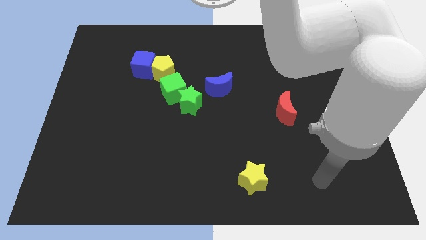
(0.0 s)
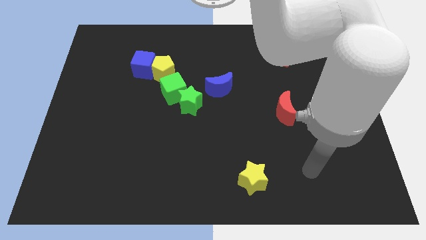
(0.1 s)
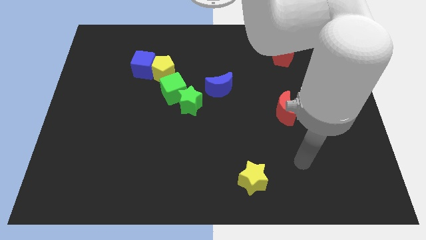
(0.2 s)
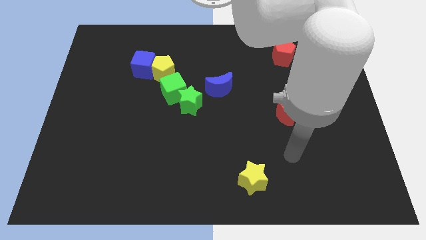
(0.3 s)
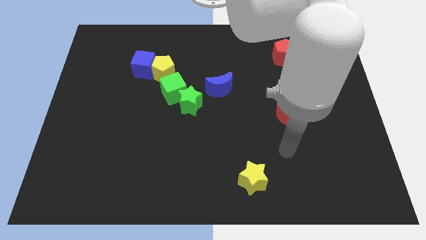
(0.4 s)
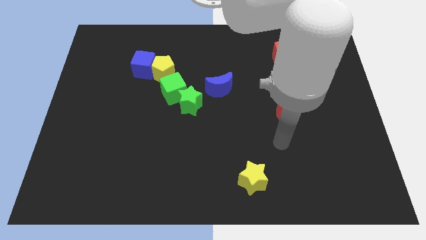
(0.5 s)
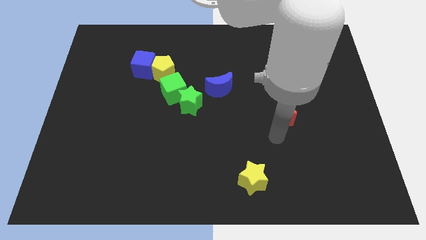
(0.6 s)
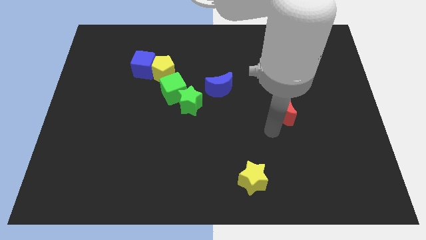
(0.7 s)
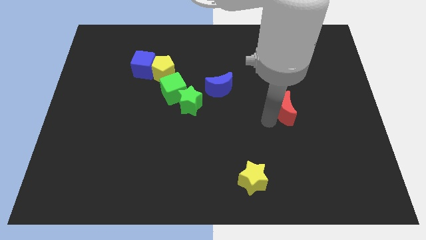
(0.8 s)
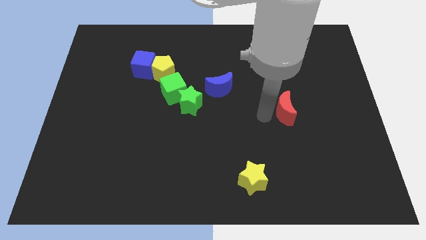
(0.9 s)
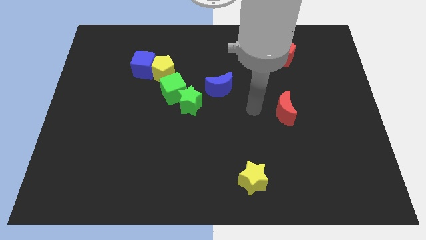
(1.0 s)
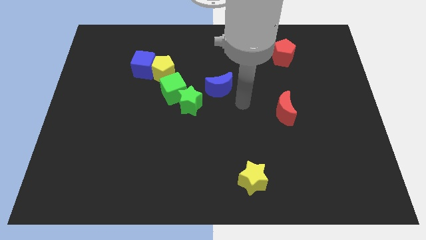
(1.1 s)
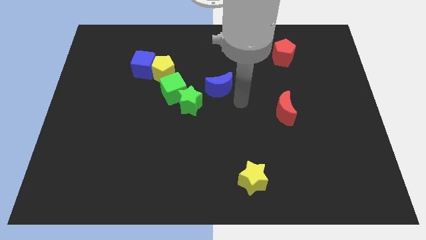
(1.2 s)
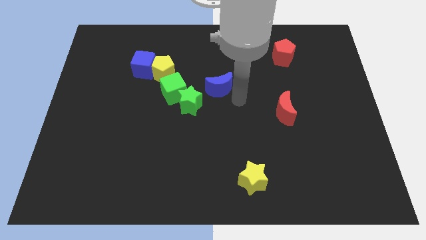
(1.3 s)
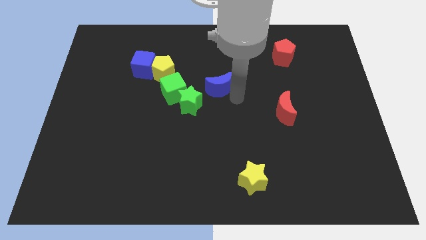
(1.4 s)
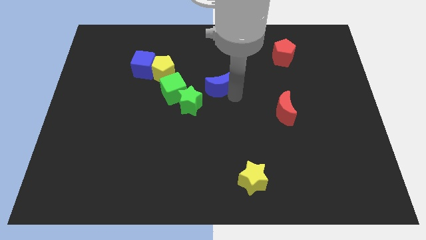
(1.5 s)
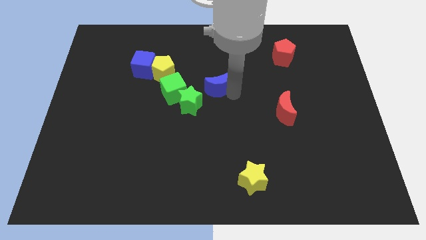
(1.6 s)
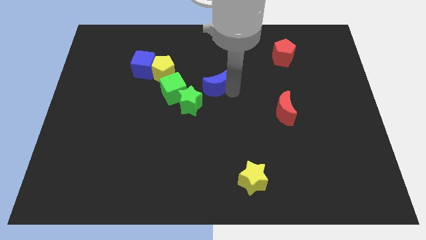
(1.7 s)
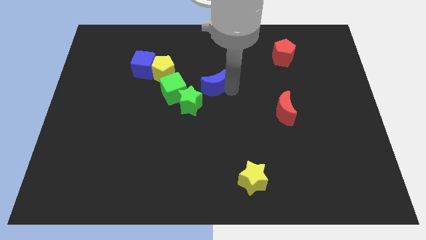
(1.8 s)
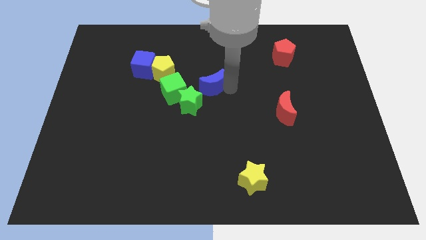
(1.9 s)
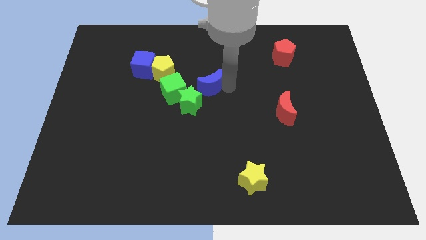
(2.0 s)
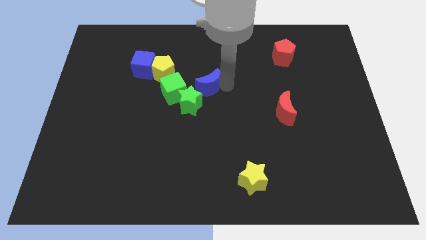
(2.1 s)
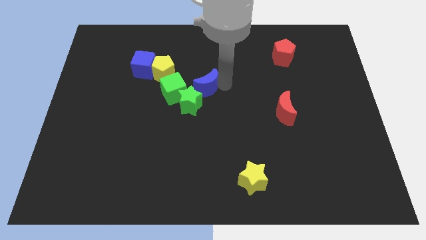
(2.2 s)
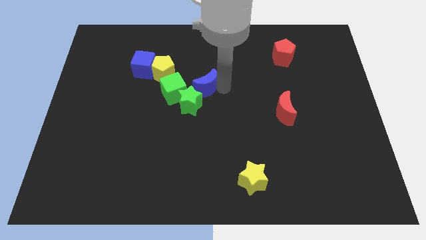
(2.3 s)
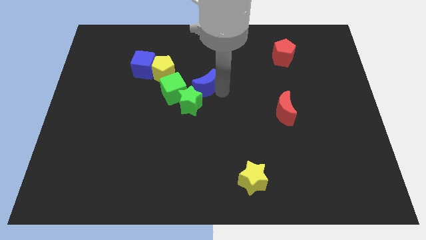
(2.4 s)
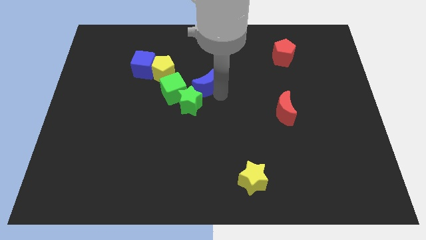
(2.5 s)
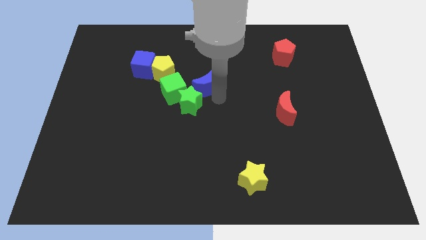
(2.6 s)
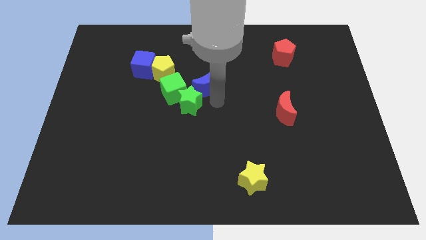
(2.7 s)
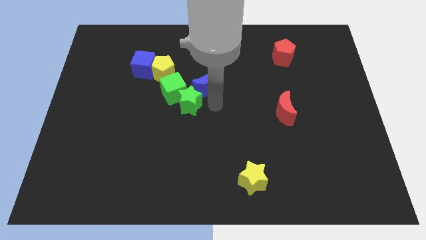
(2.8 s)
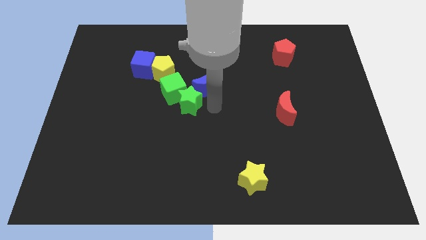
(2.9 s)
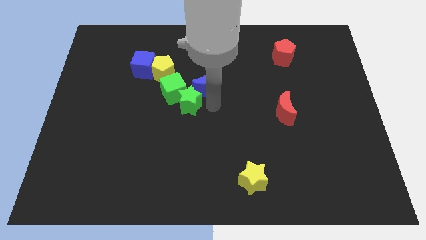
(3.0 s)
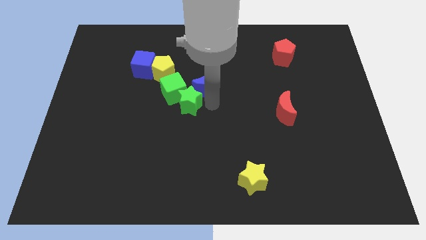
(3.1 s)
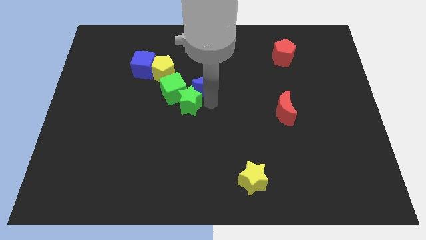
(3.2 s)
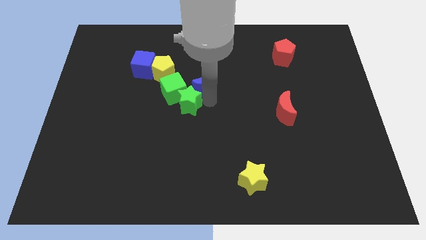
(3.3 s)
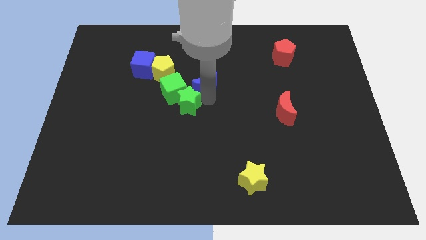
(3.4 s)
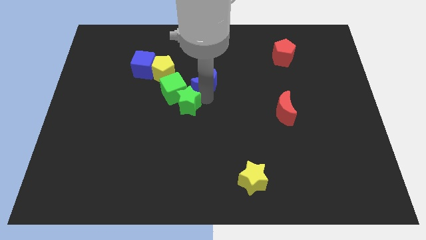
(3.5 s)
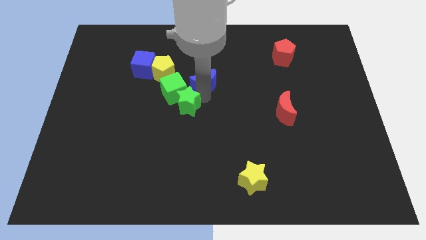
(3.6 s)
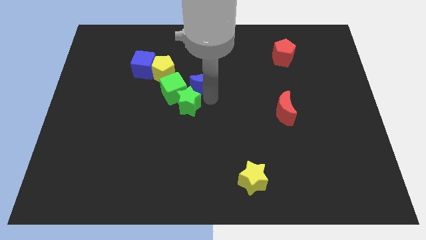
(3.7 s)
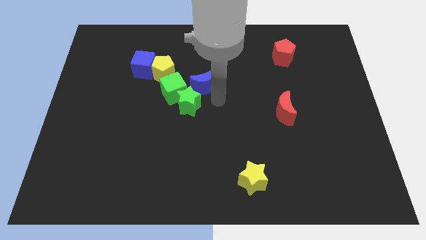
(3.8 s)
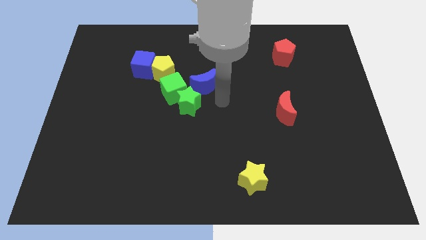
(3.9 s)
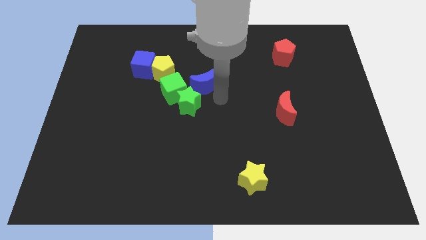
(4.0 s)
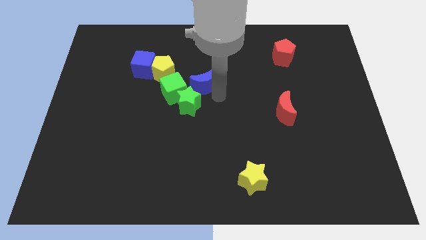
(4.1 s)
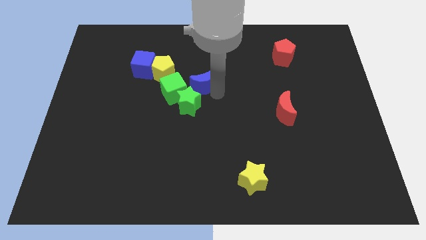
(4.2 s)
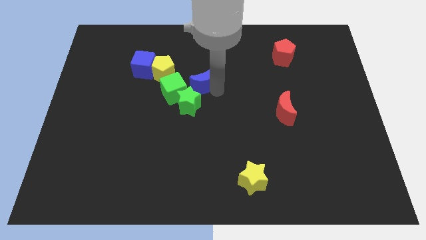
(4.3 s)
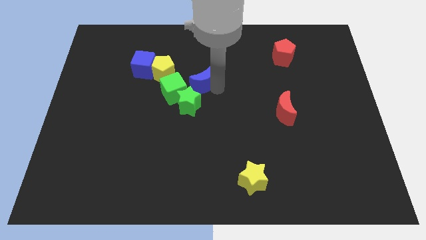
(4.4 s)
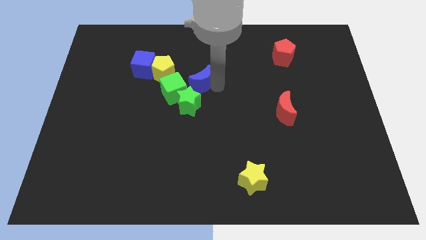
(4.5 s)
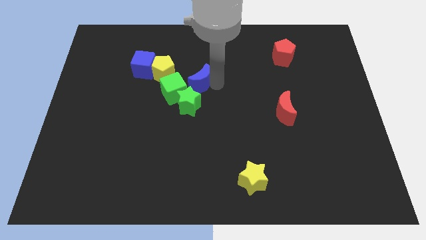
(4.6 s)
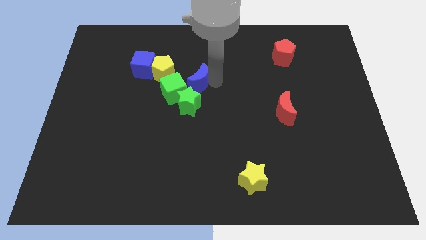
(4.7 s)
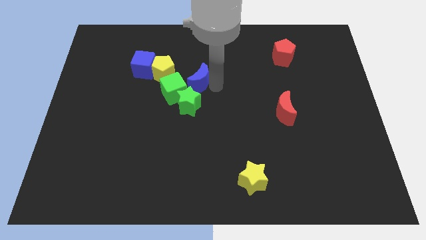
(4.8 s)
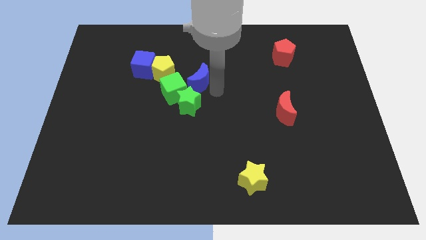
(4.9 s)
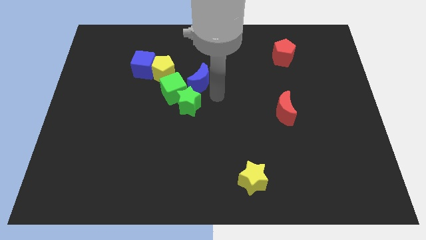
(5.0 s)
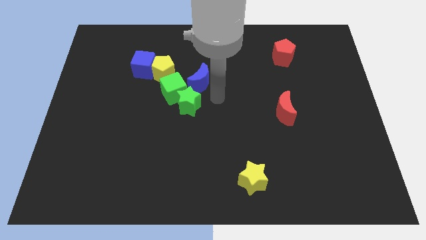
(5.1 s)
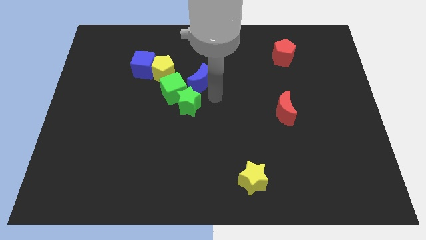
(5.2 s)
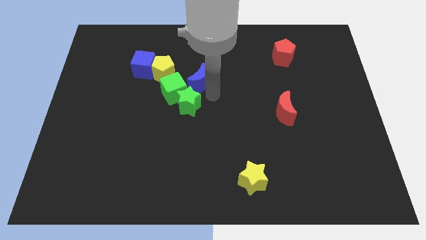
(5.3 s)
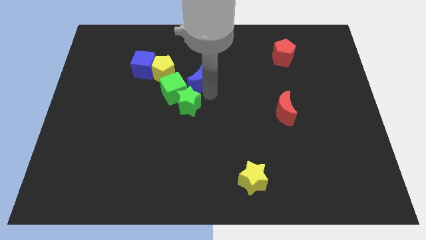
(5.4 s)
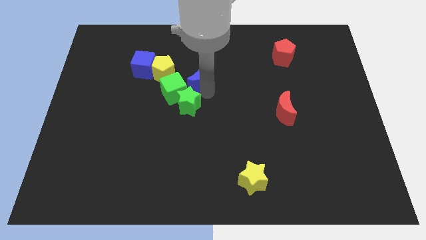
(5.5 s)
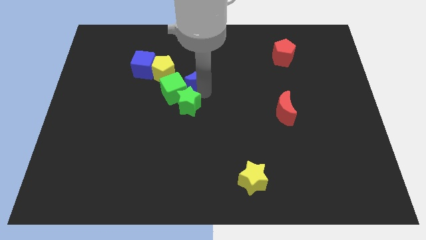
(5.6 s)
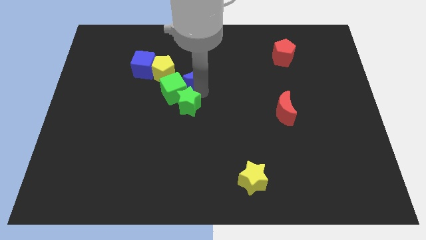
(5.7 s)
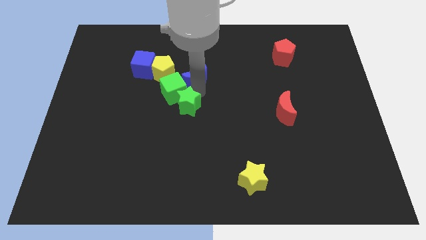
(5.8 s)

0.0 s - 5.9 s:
push the blue moon to the right of the blue cube

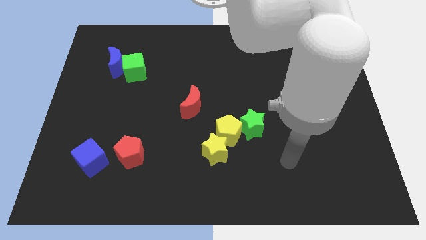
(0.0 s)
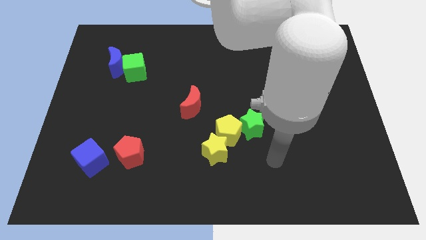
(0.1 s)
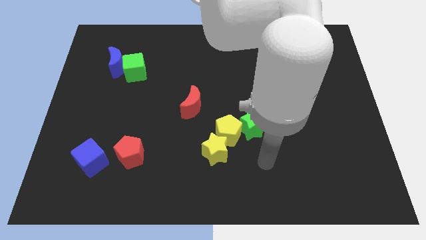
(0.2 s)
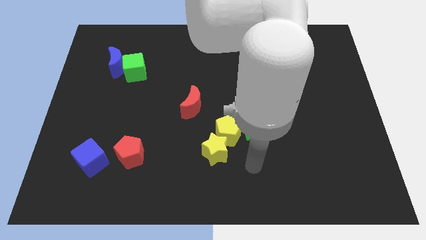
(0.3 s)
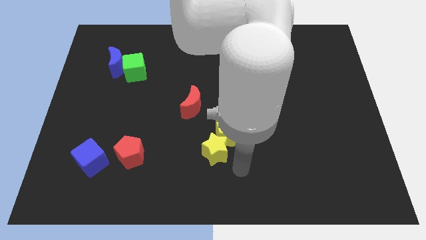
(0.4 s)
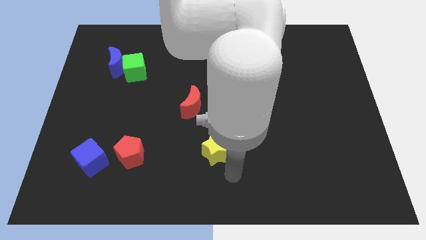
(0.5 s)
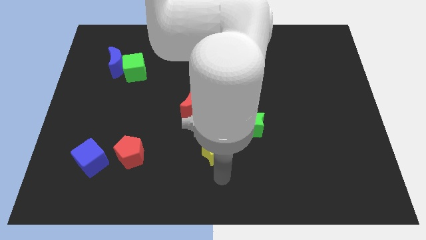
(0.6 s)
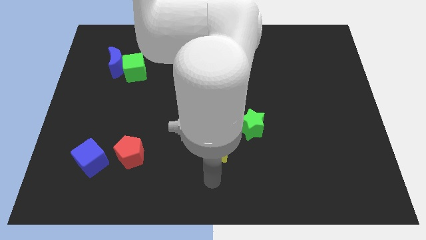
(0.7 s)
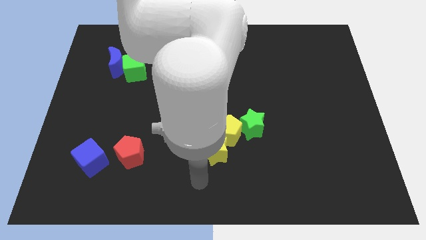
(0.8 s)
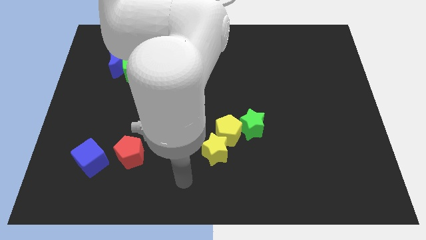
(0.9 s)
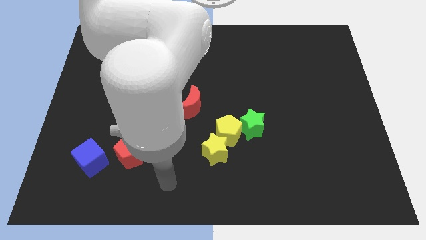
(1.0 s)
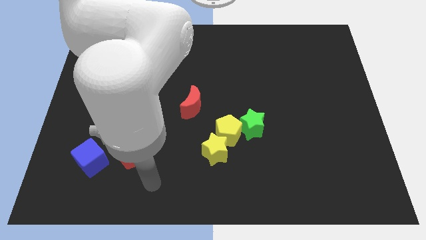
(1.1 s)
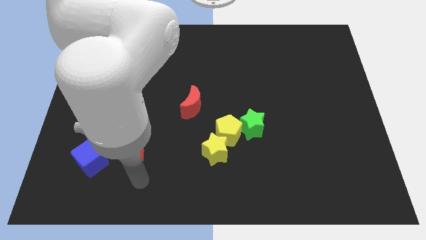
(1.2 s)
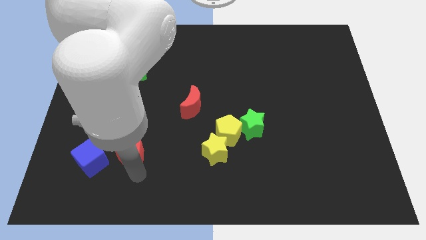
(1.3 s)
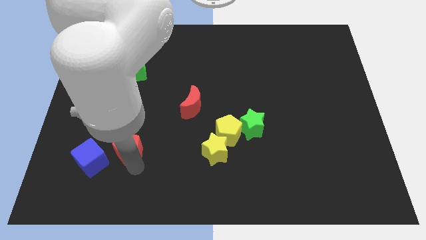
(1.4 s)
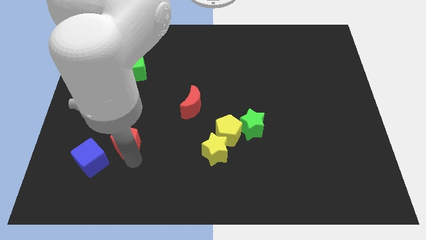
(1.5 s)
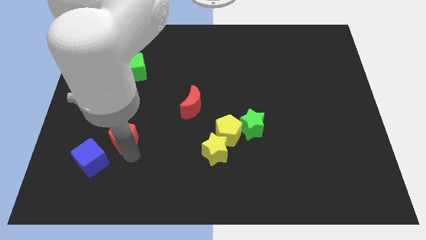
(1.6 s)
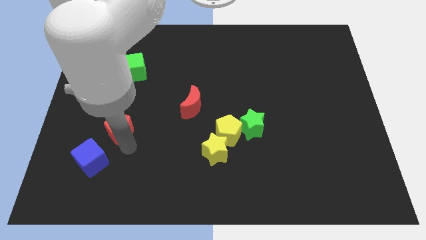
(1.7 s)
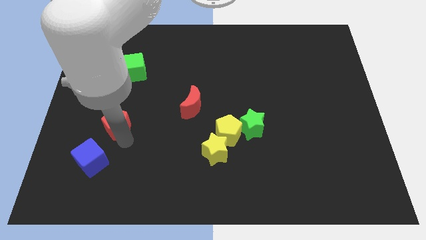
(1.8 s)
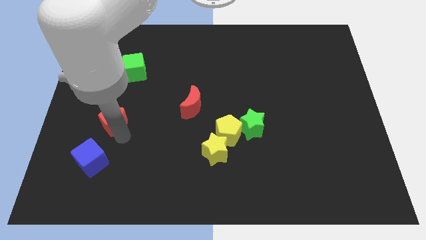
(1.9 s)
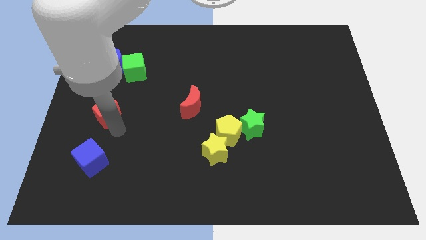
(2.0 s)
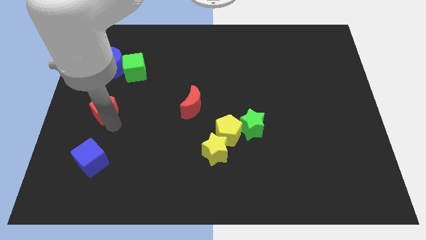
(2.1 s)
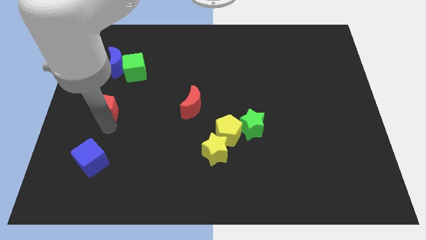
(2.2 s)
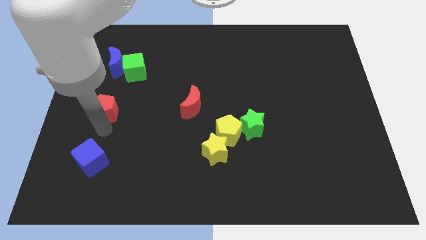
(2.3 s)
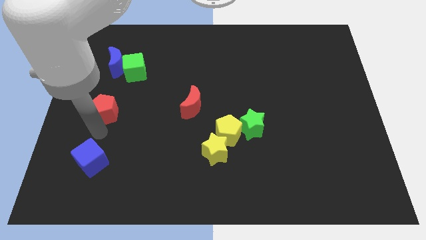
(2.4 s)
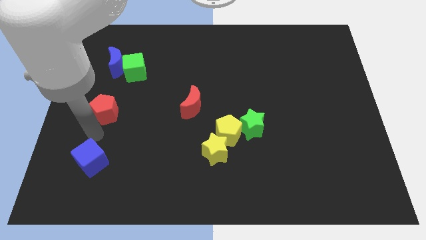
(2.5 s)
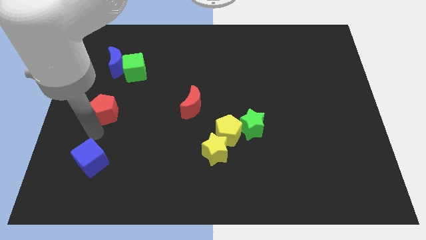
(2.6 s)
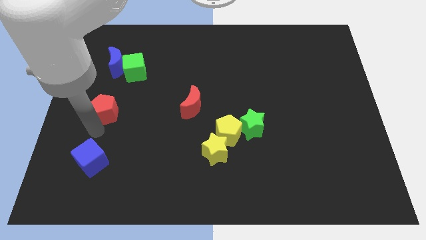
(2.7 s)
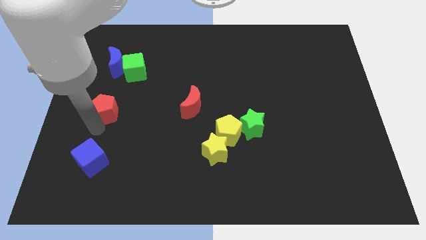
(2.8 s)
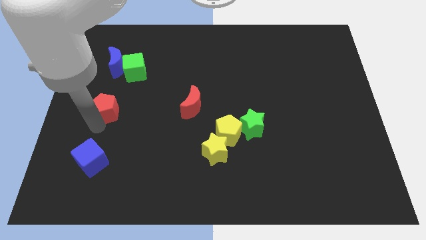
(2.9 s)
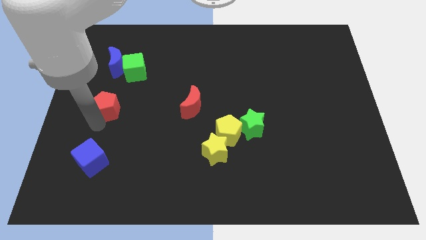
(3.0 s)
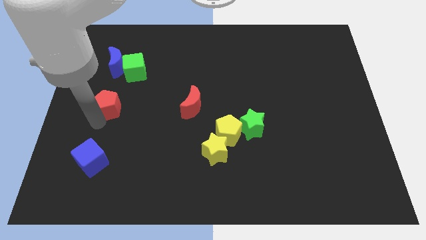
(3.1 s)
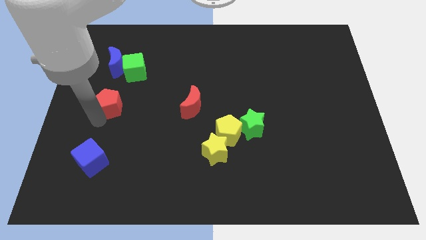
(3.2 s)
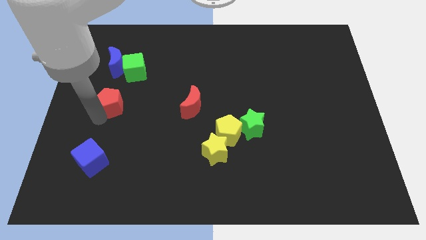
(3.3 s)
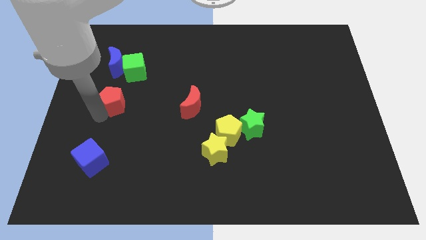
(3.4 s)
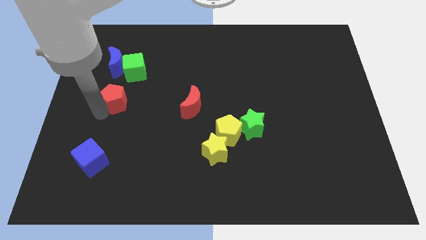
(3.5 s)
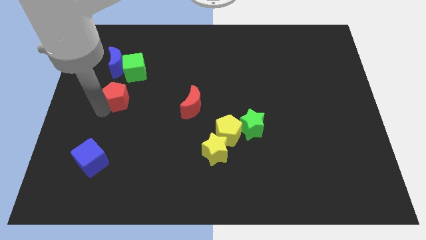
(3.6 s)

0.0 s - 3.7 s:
put the red pentagon to the bottom left of the green cube
